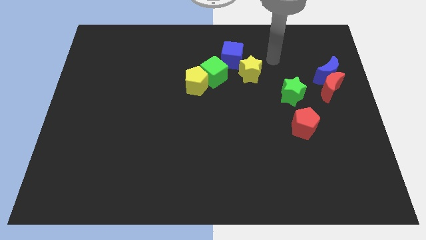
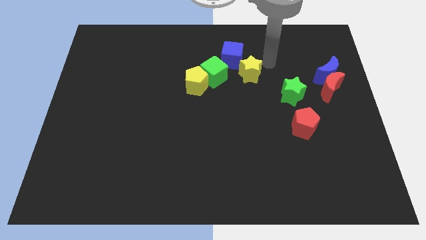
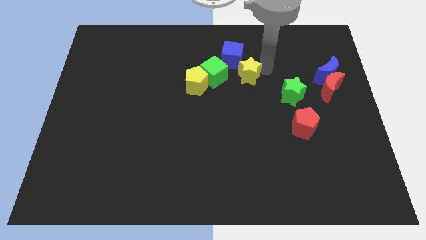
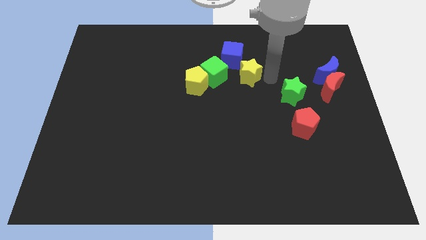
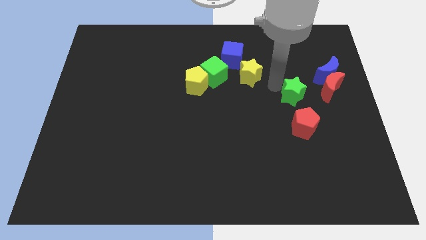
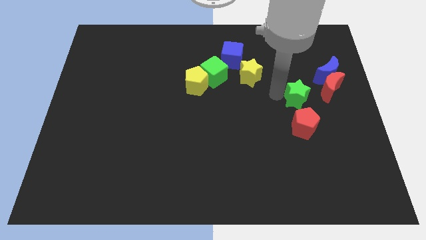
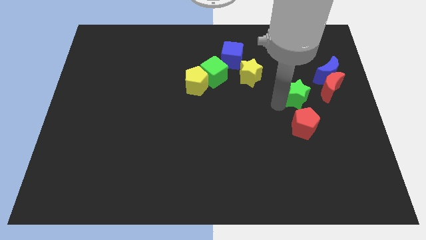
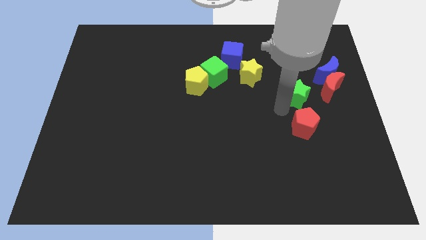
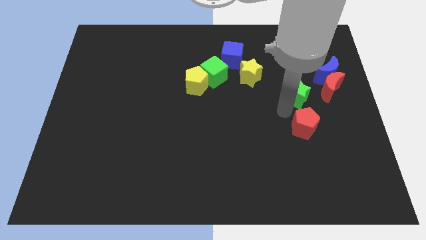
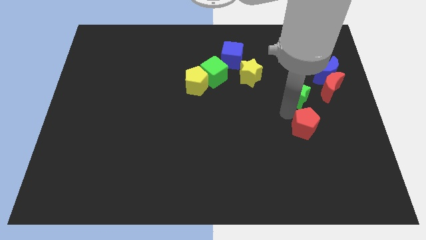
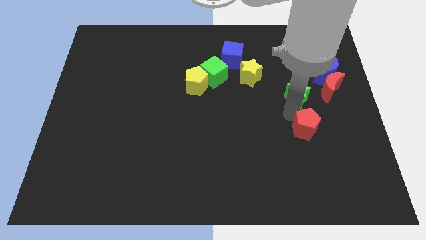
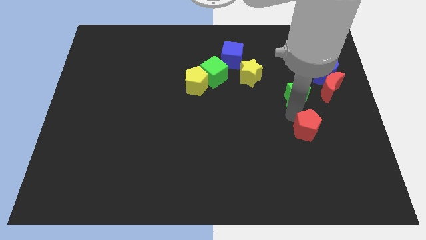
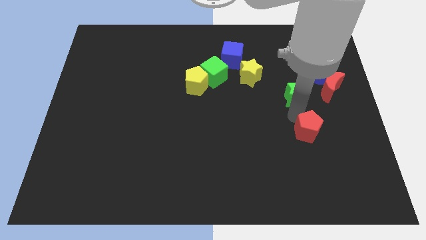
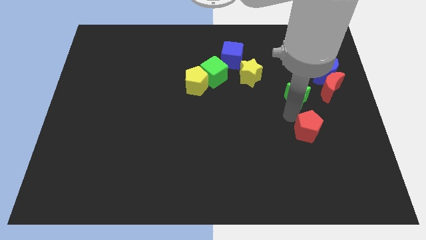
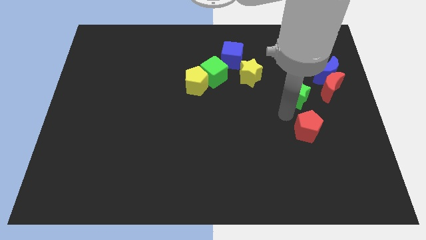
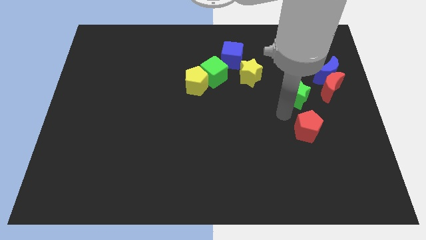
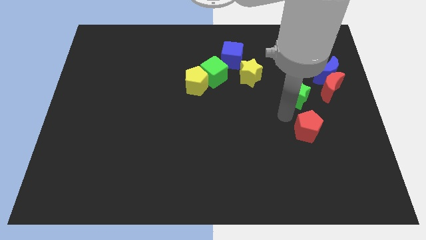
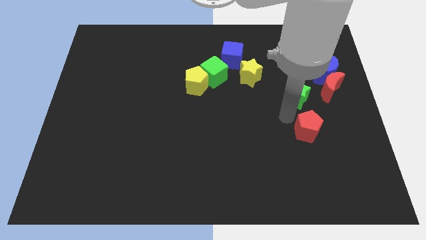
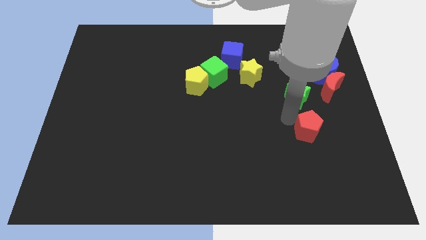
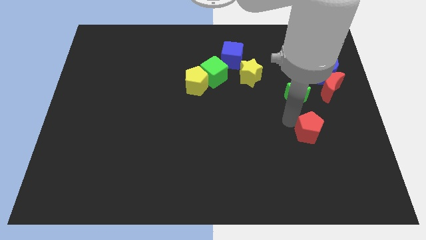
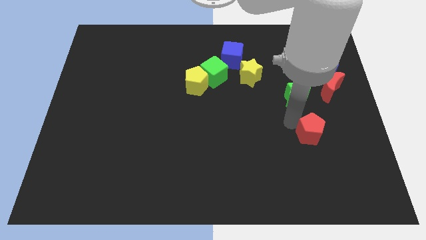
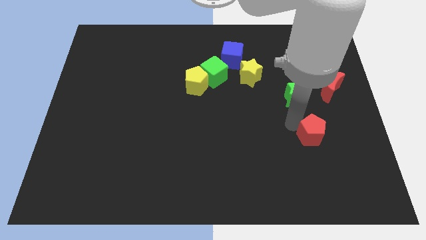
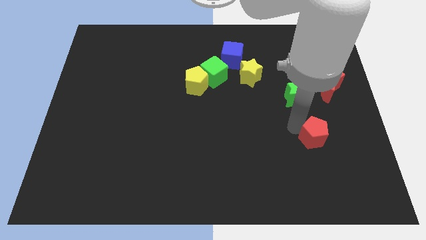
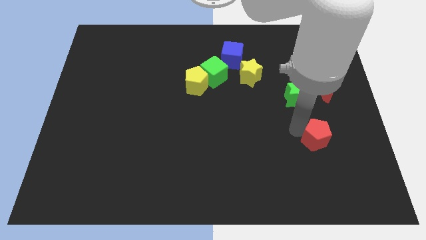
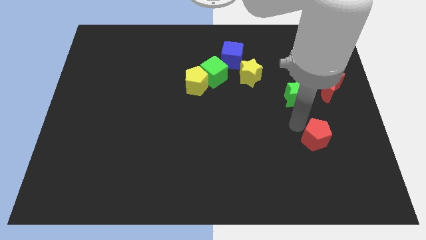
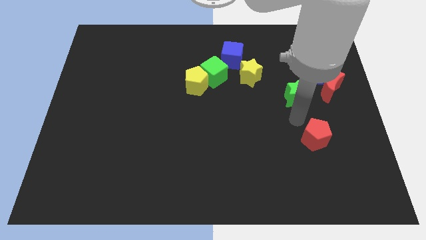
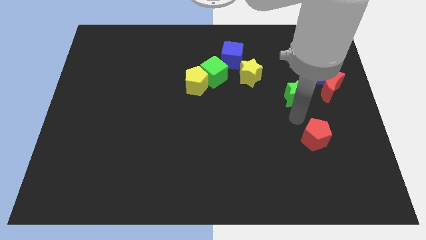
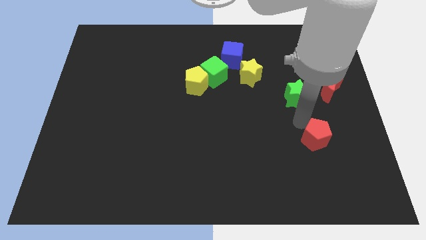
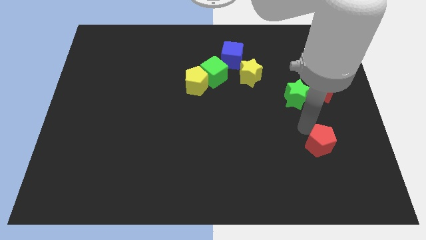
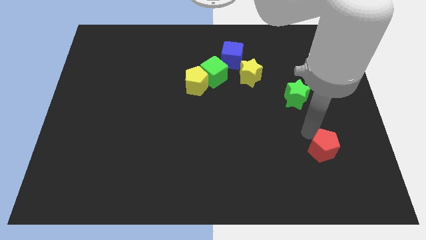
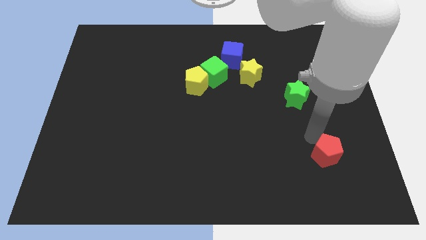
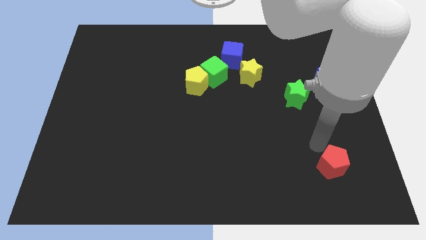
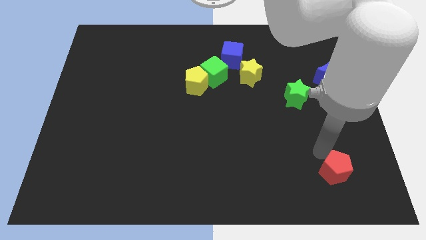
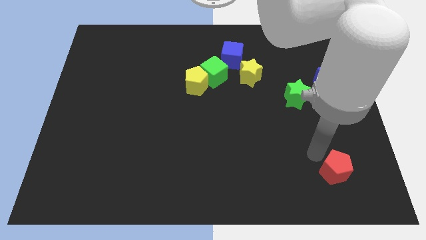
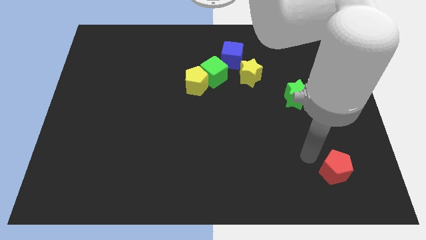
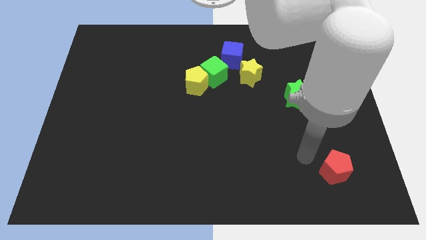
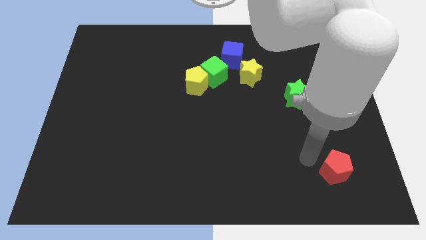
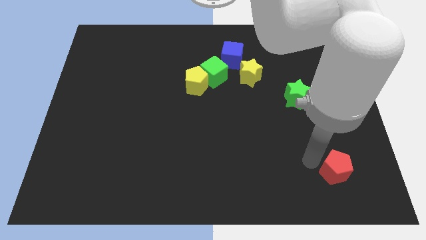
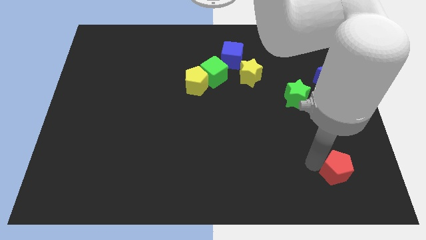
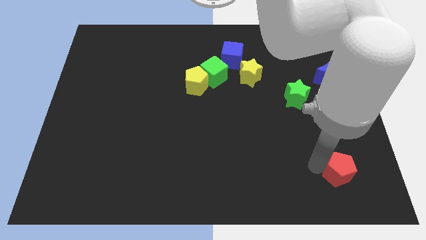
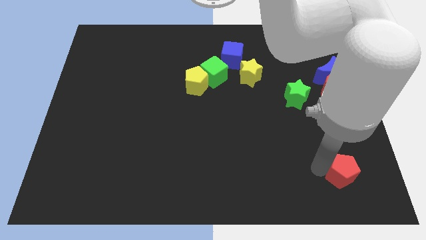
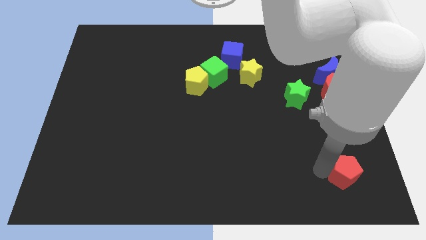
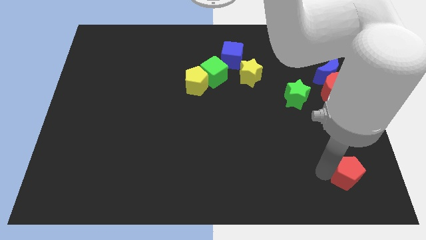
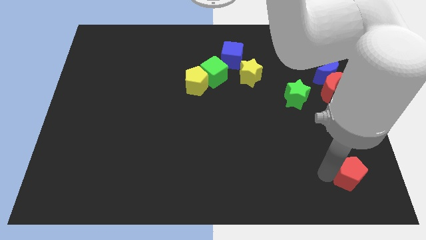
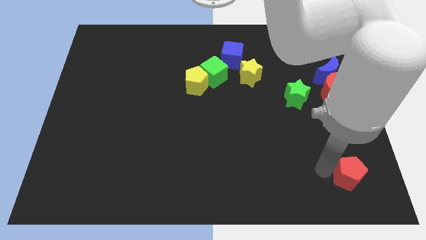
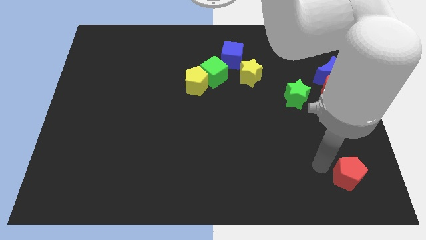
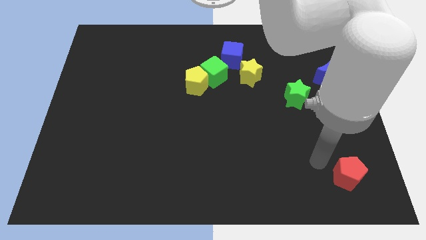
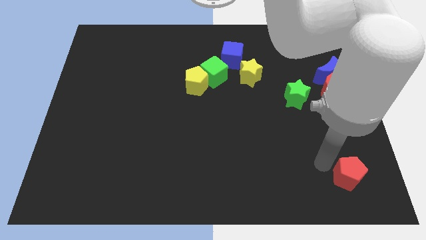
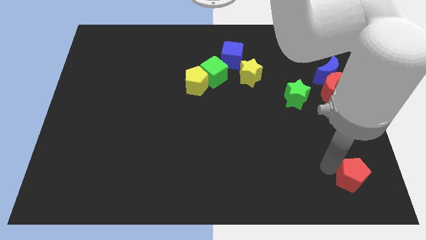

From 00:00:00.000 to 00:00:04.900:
push the red pentagon to the bottom right of the board

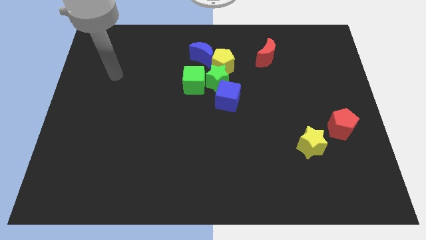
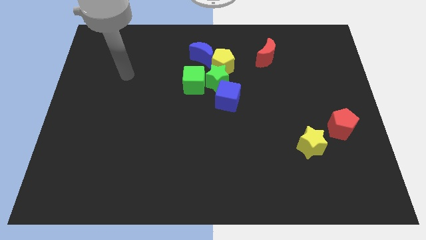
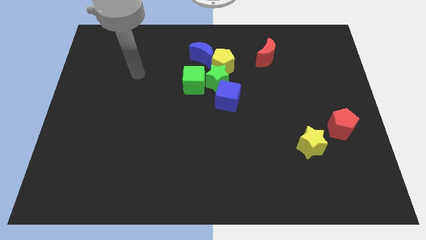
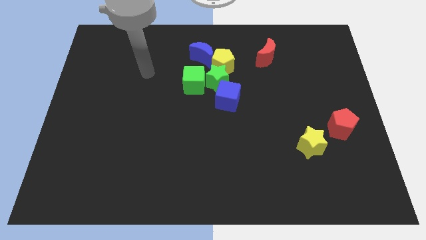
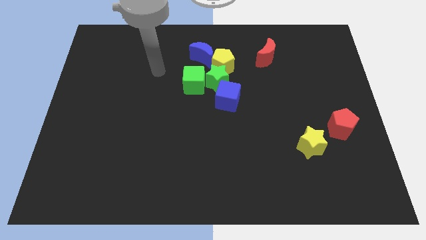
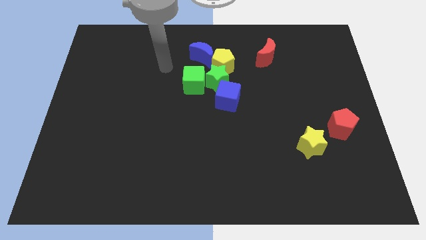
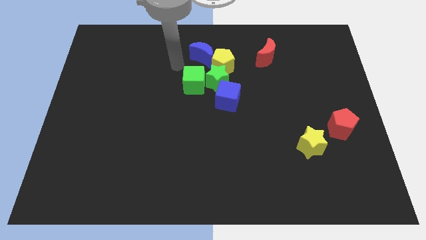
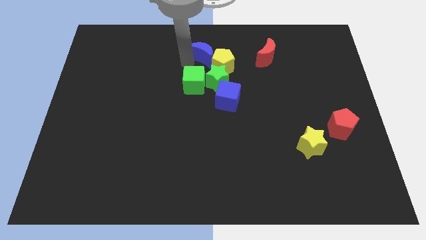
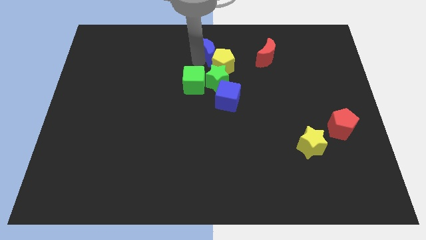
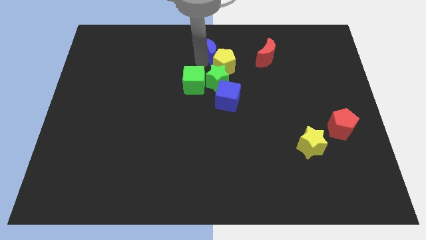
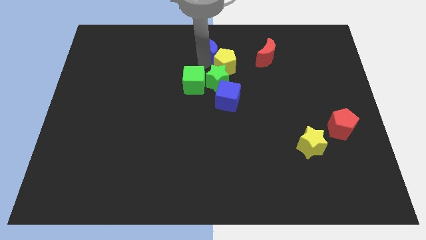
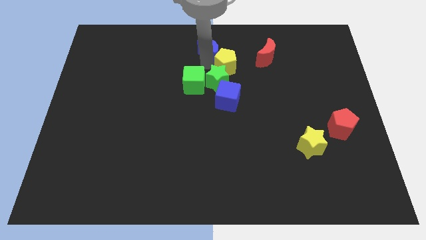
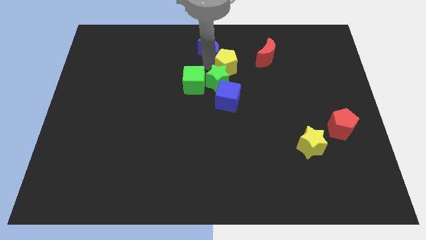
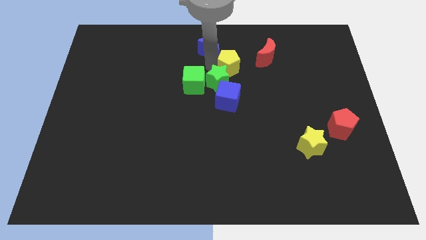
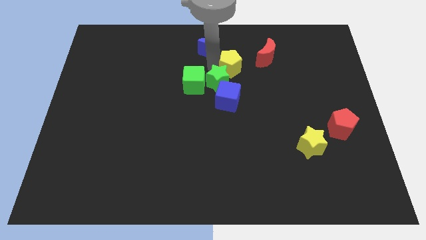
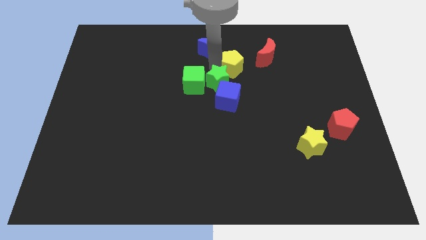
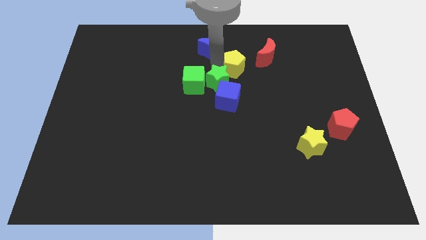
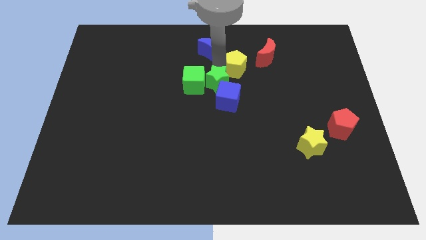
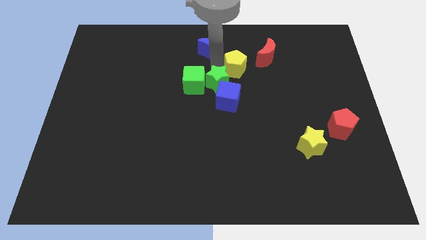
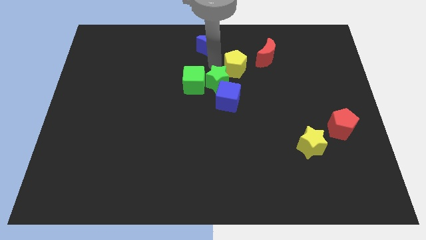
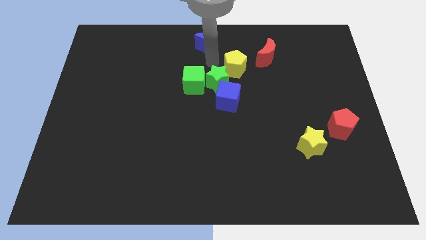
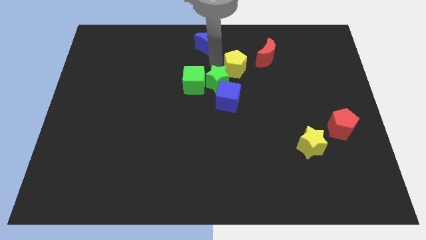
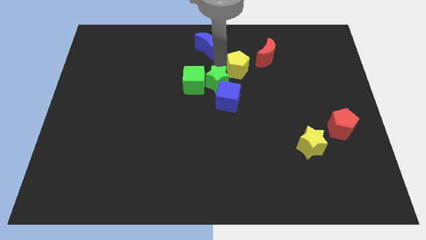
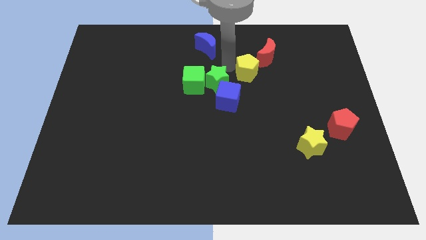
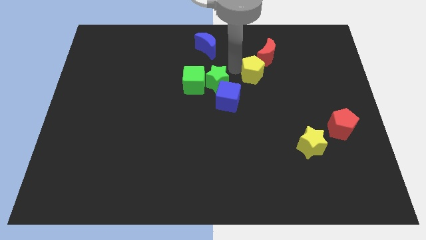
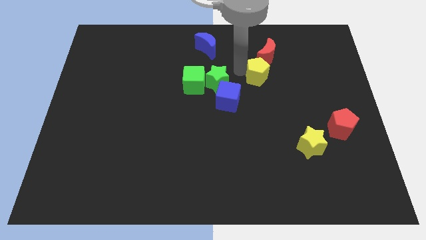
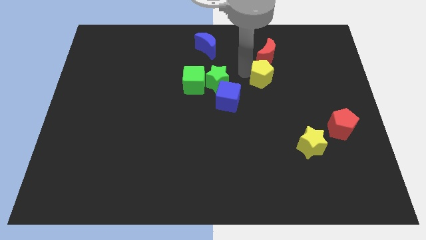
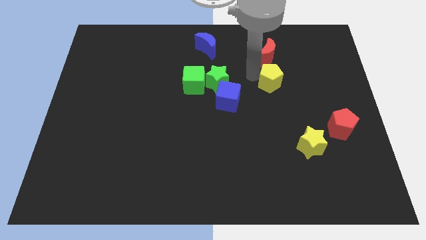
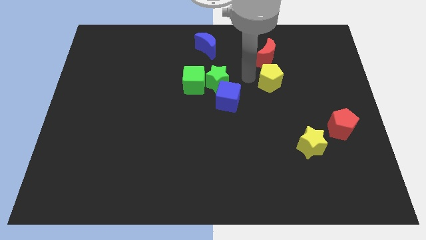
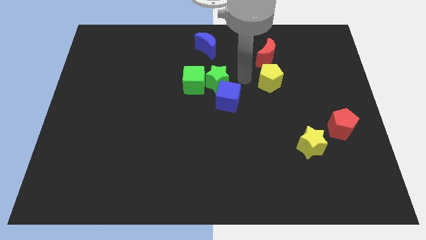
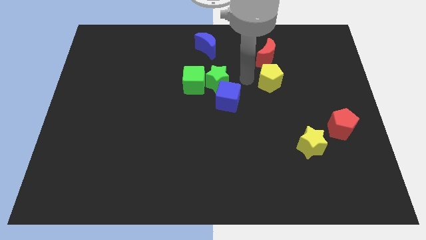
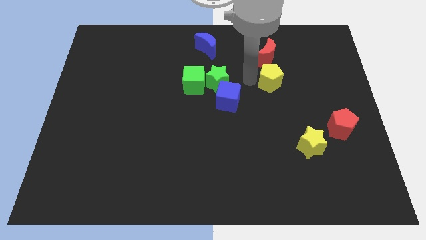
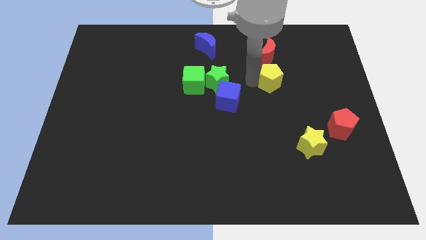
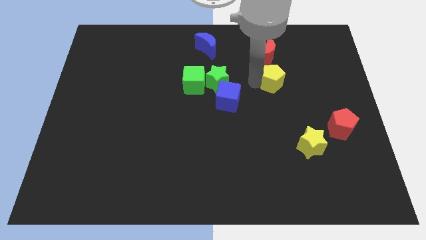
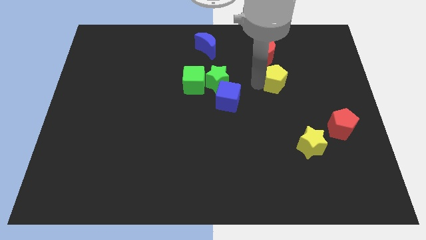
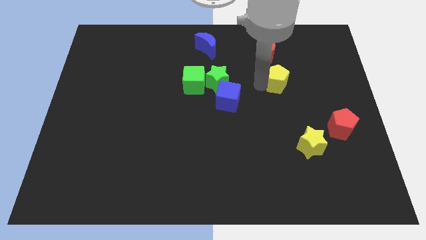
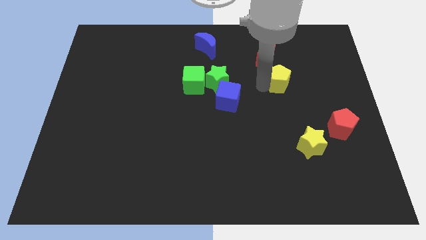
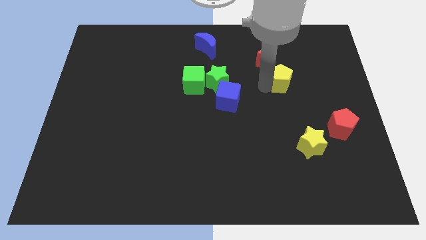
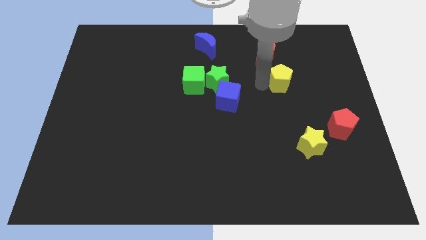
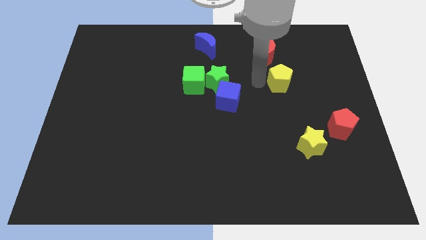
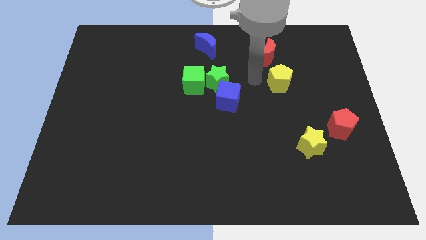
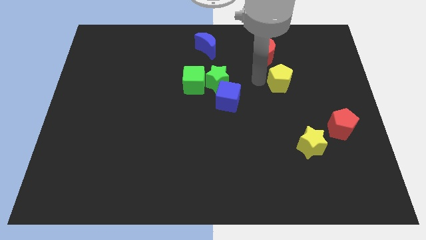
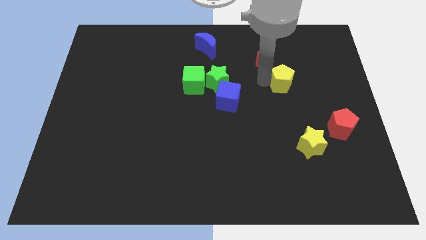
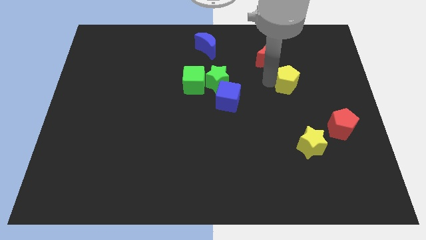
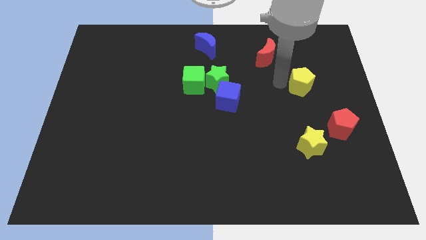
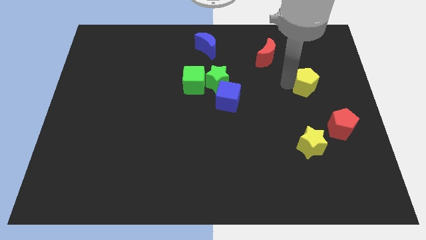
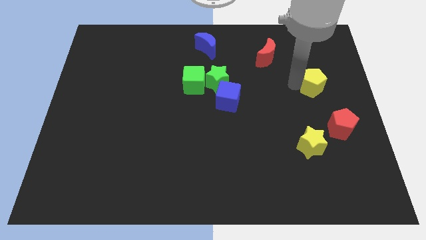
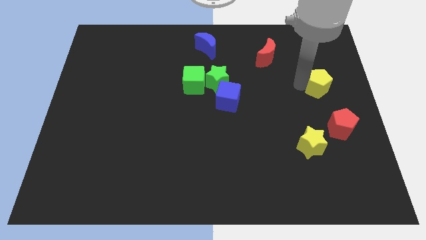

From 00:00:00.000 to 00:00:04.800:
push the yellow pentagon to the center right
